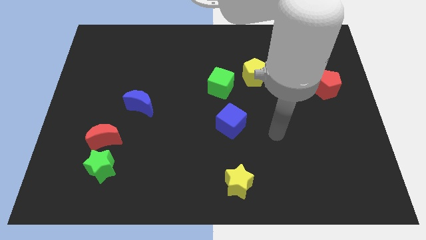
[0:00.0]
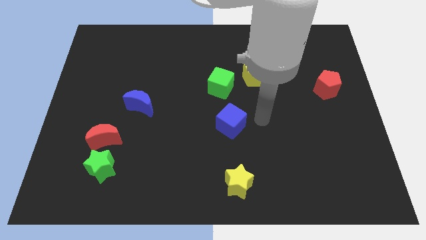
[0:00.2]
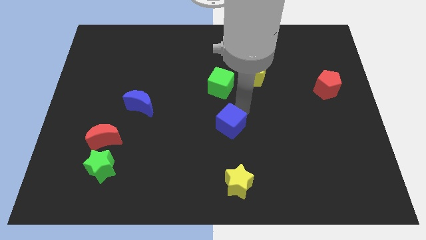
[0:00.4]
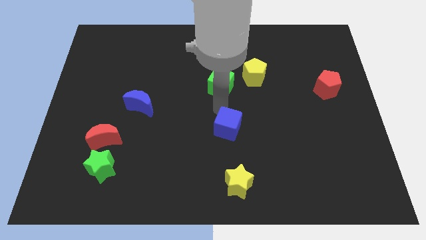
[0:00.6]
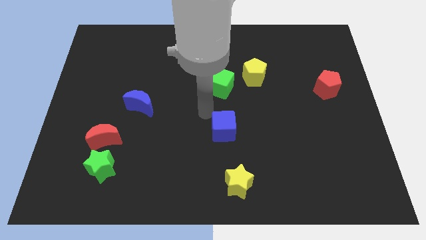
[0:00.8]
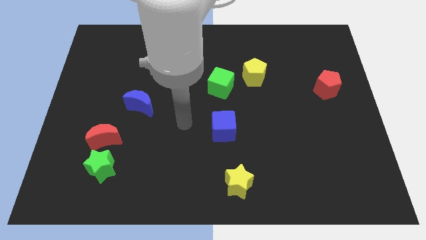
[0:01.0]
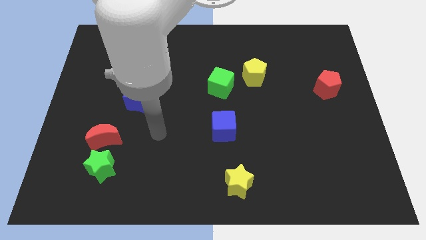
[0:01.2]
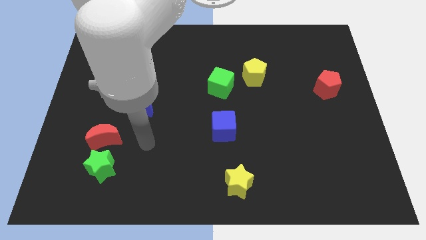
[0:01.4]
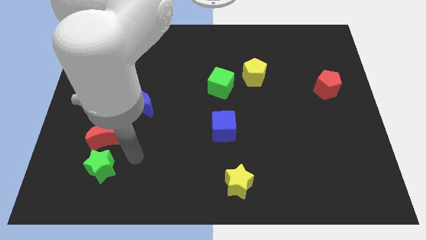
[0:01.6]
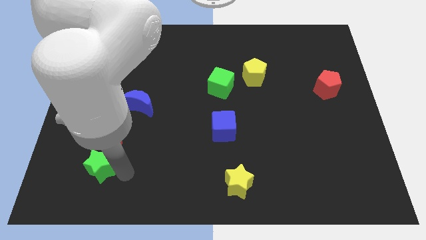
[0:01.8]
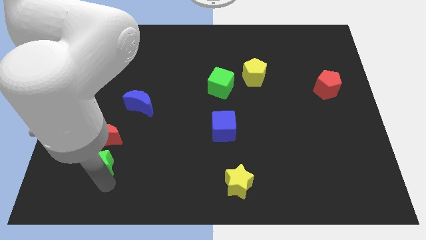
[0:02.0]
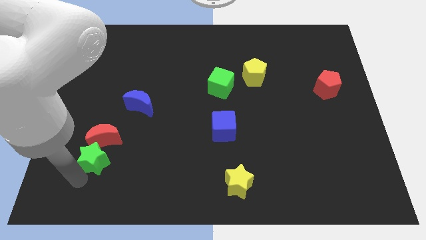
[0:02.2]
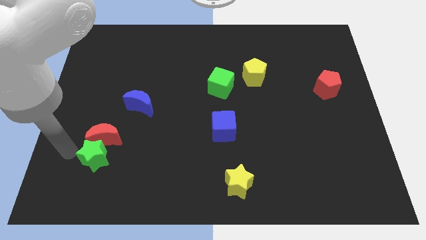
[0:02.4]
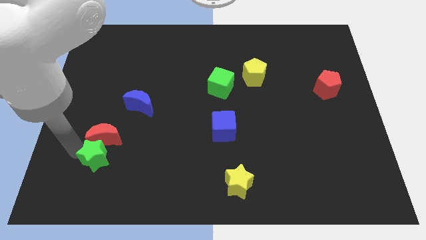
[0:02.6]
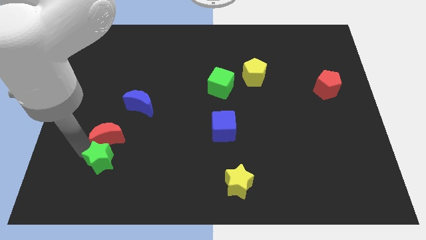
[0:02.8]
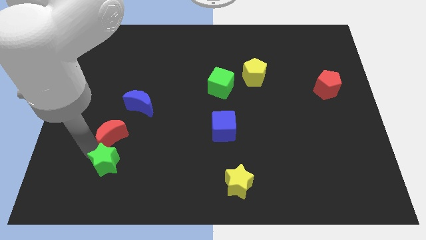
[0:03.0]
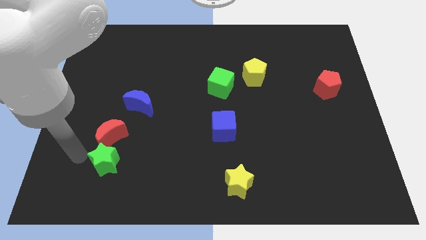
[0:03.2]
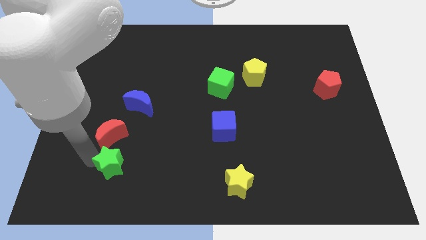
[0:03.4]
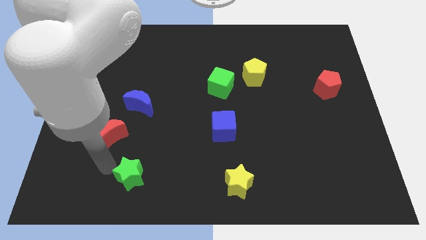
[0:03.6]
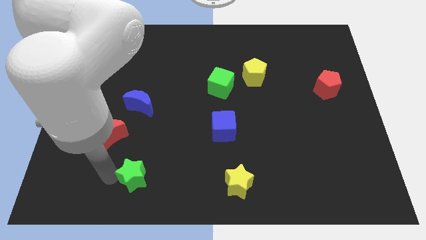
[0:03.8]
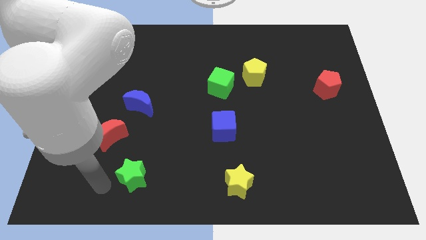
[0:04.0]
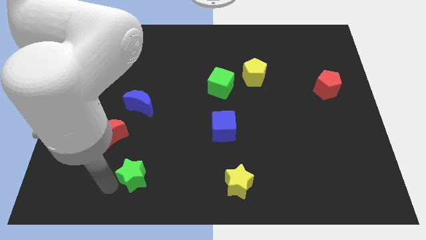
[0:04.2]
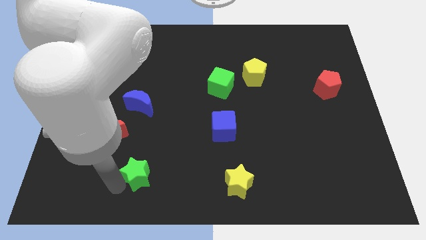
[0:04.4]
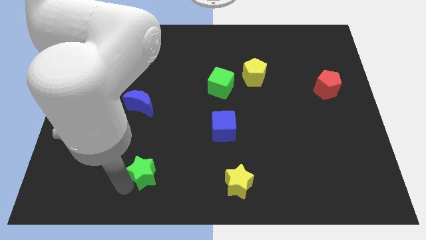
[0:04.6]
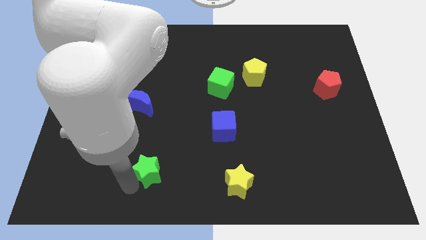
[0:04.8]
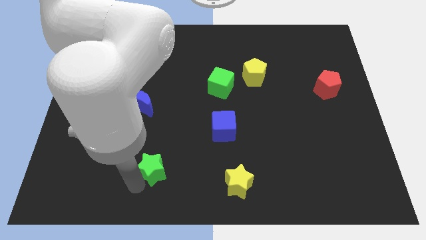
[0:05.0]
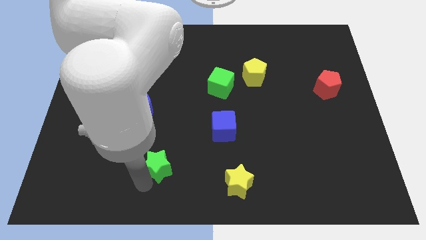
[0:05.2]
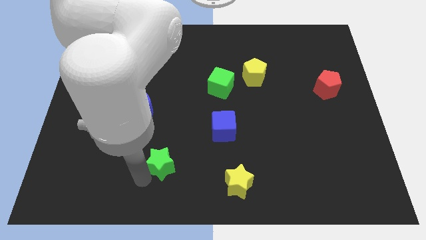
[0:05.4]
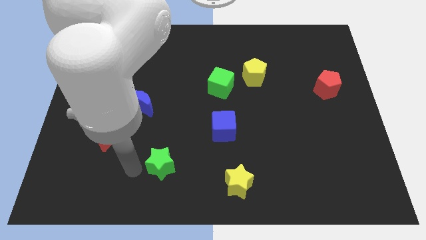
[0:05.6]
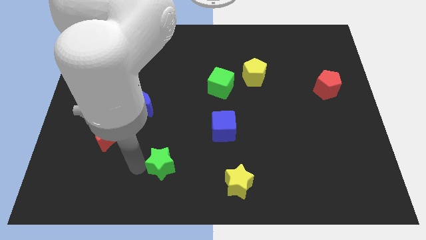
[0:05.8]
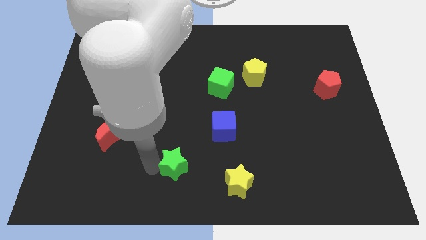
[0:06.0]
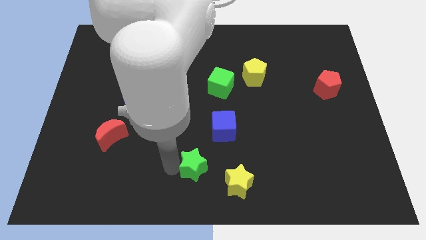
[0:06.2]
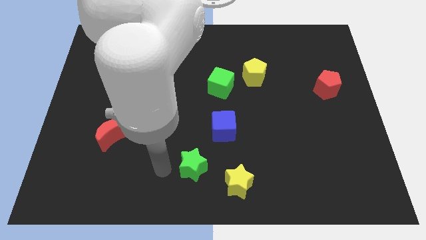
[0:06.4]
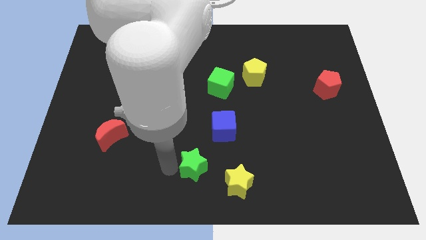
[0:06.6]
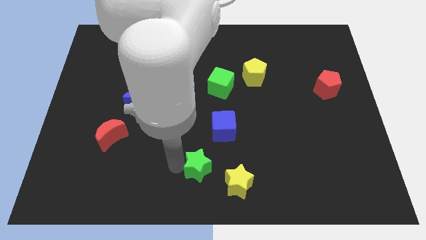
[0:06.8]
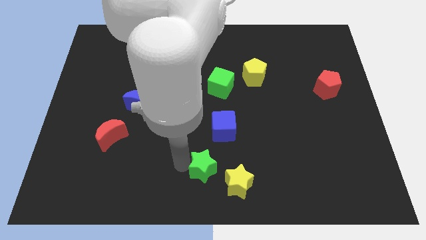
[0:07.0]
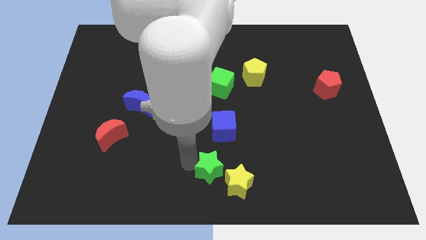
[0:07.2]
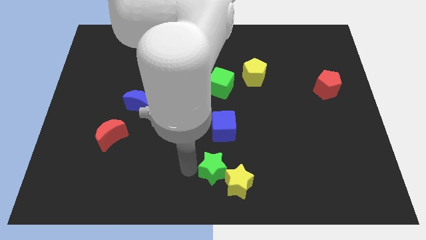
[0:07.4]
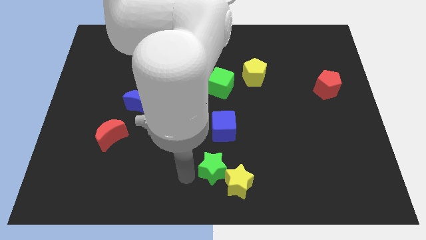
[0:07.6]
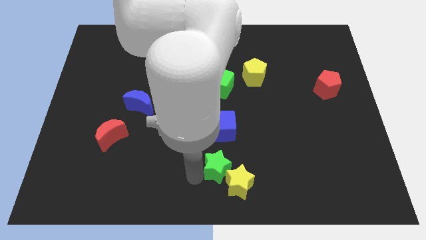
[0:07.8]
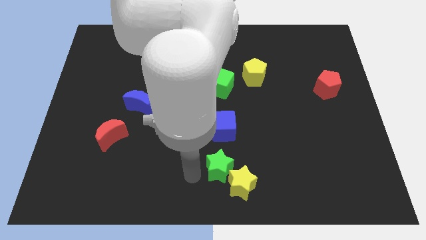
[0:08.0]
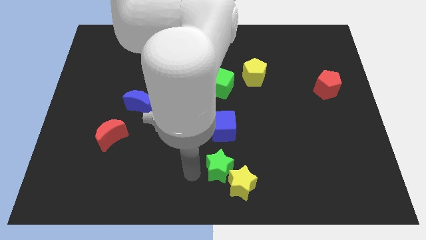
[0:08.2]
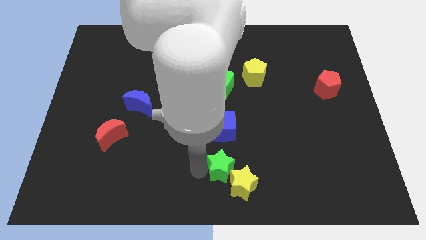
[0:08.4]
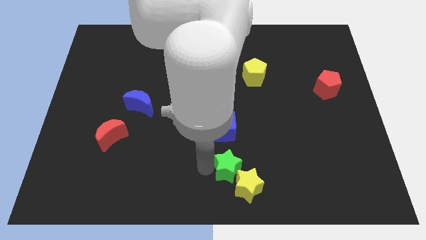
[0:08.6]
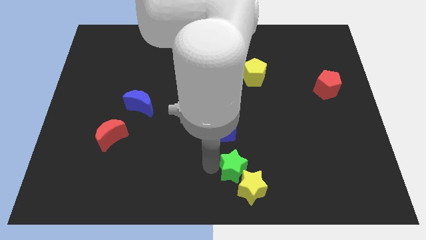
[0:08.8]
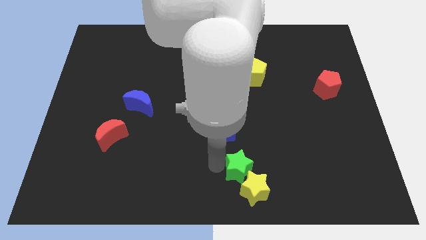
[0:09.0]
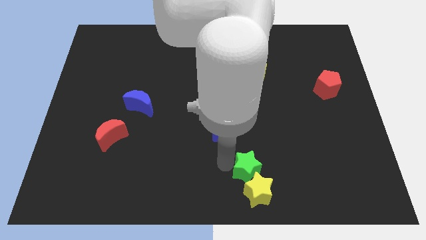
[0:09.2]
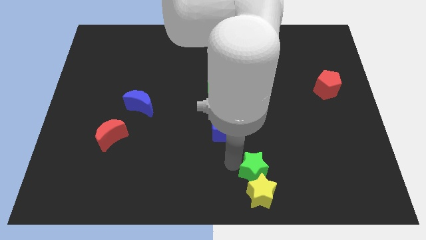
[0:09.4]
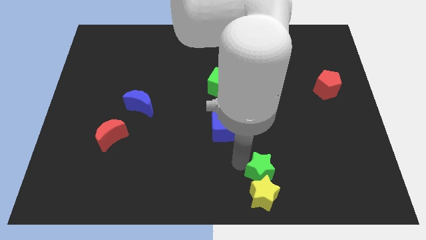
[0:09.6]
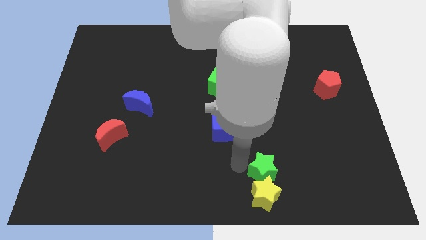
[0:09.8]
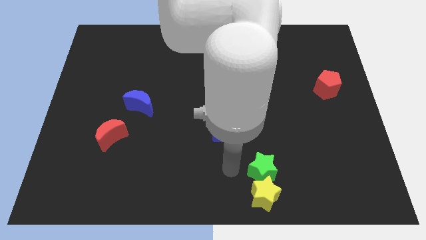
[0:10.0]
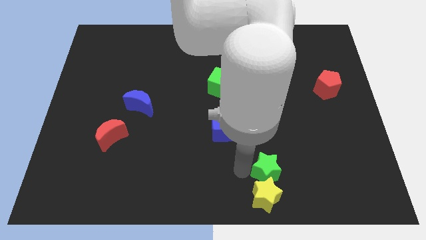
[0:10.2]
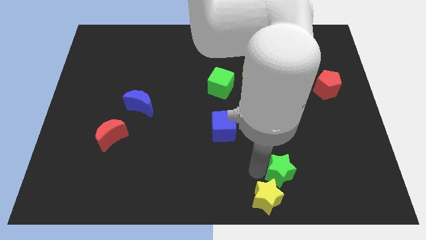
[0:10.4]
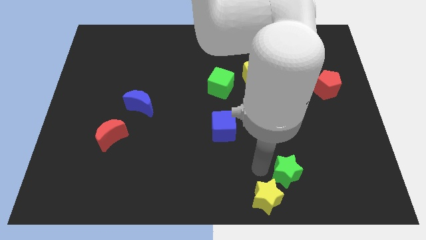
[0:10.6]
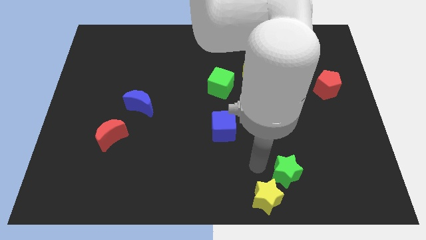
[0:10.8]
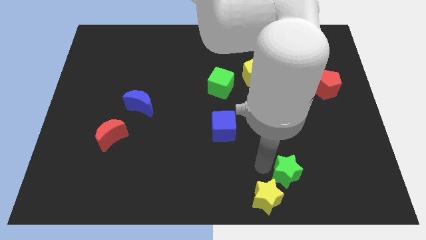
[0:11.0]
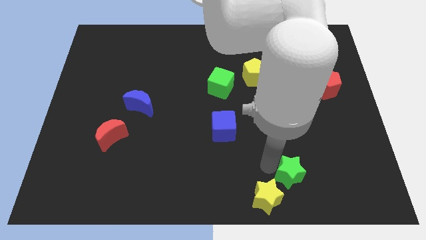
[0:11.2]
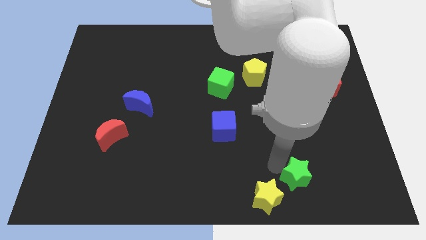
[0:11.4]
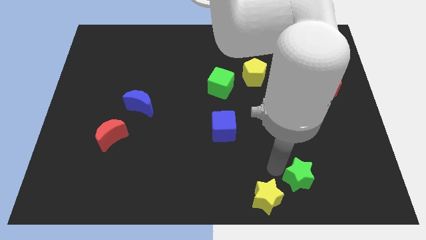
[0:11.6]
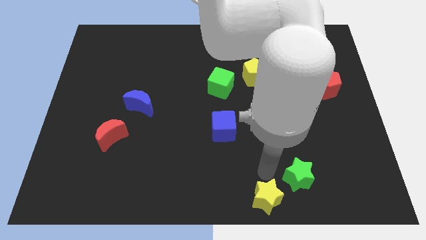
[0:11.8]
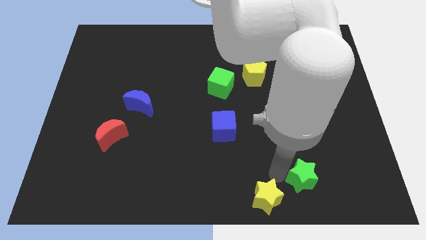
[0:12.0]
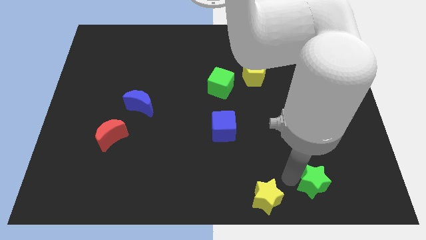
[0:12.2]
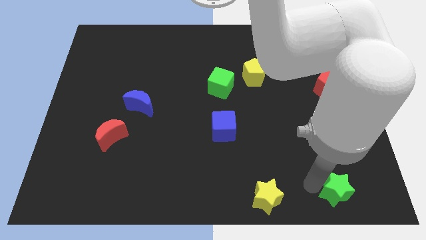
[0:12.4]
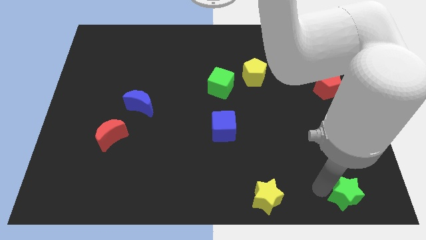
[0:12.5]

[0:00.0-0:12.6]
push the green star to the lower right corner

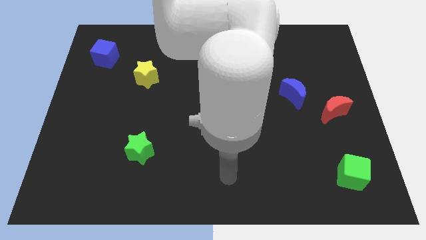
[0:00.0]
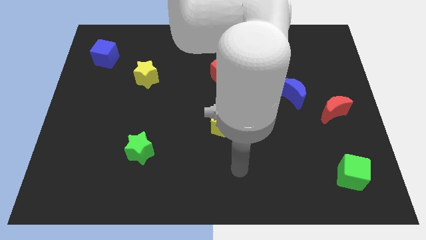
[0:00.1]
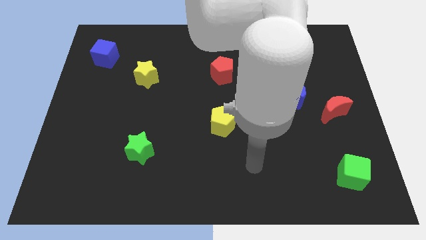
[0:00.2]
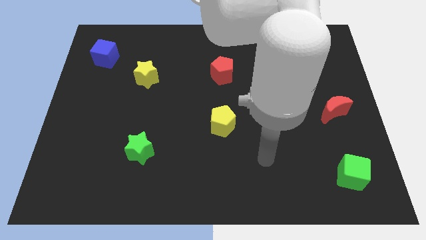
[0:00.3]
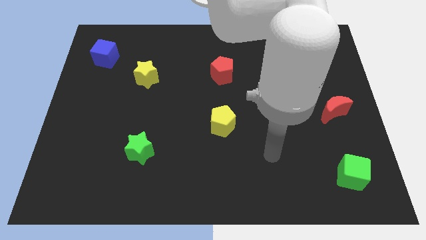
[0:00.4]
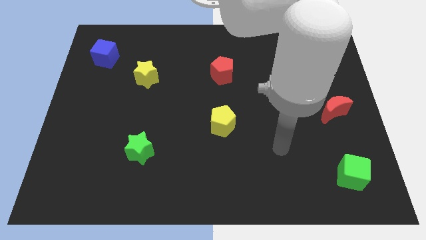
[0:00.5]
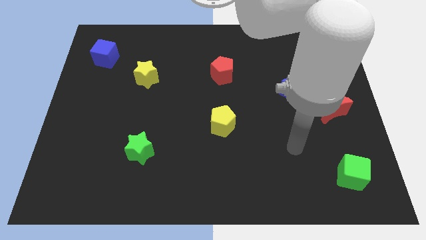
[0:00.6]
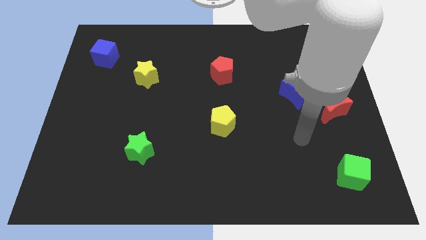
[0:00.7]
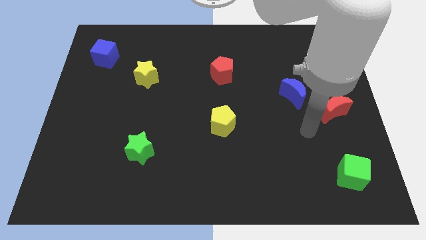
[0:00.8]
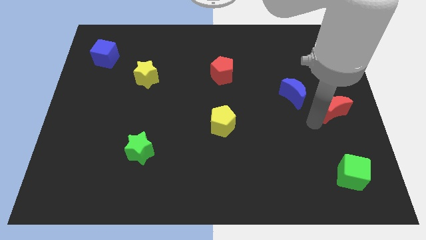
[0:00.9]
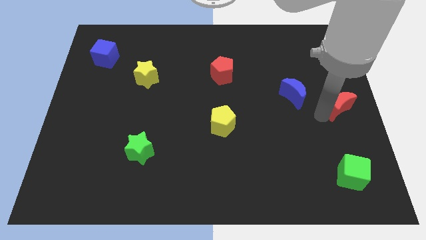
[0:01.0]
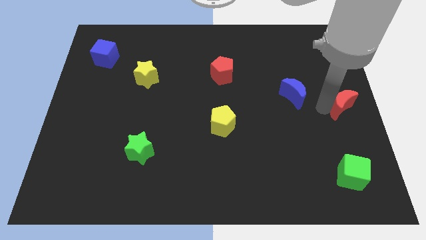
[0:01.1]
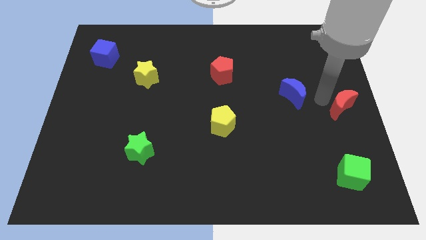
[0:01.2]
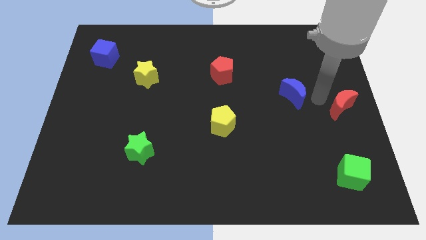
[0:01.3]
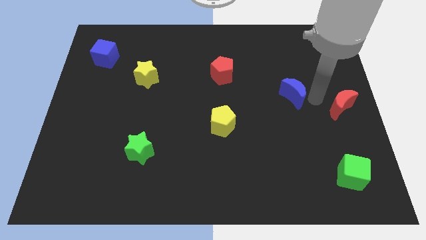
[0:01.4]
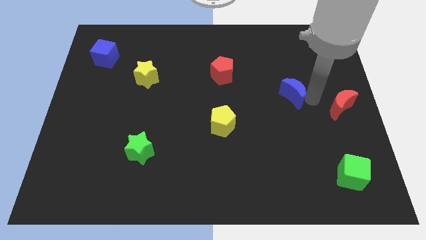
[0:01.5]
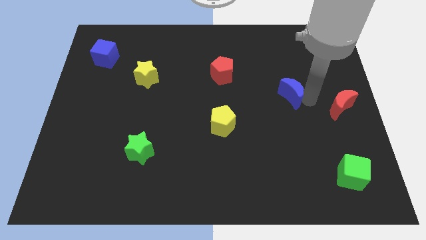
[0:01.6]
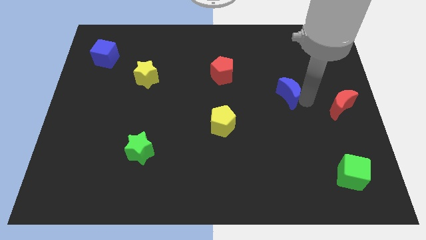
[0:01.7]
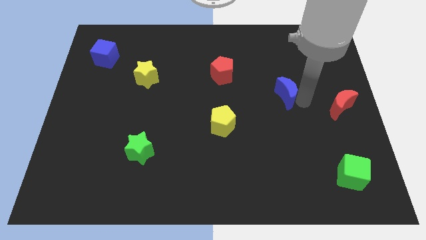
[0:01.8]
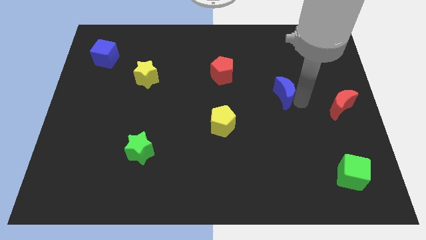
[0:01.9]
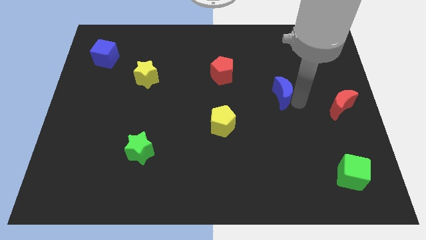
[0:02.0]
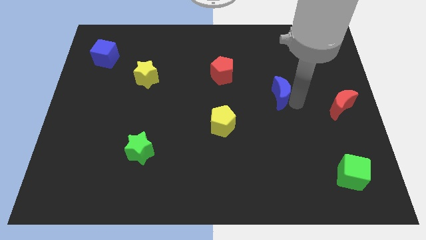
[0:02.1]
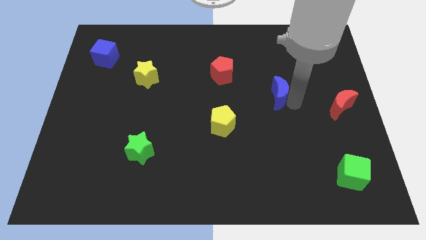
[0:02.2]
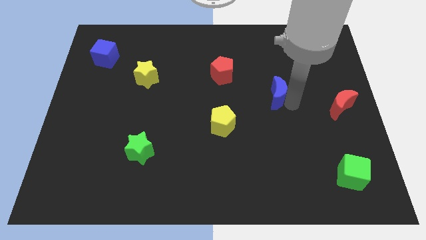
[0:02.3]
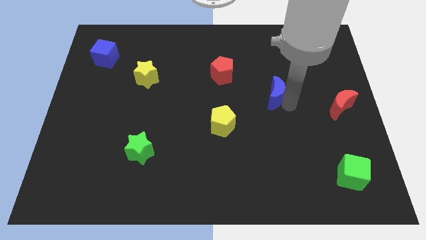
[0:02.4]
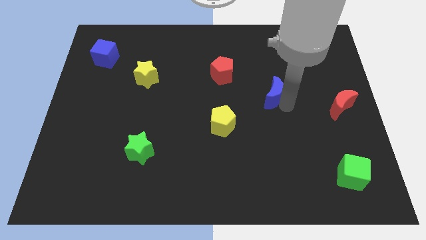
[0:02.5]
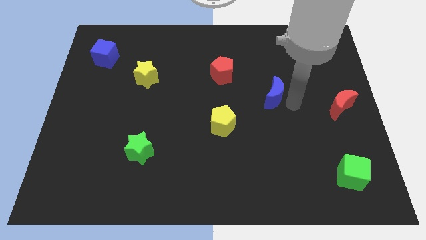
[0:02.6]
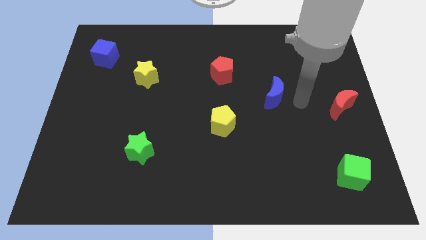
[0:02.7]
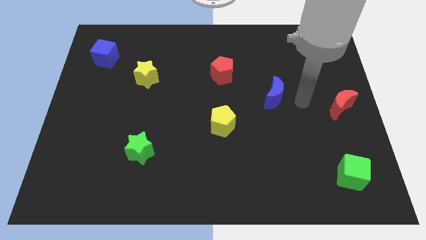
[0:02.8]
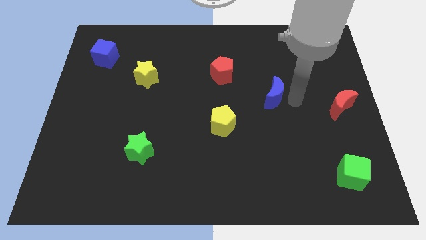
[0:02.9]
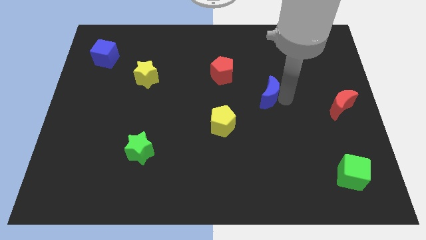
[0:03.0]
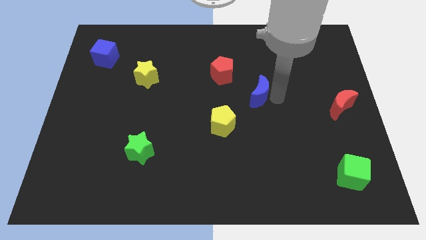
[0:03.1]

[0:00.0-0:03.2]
push the blue moon to the middle
